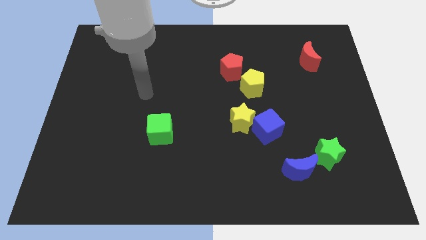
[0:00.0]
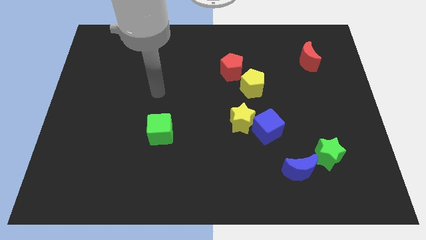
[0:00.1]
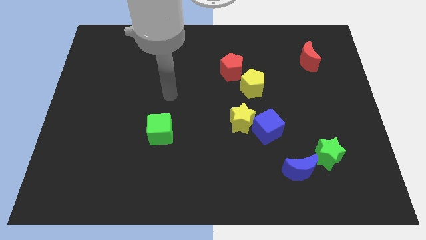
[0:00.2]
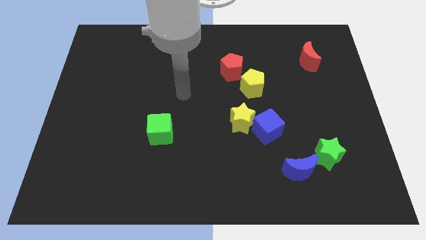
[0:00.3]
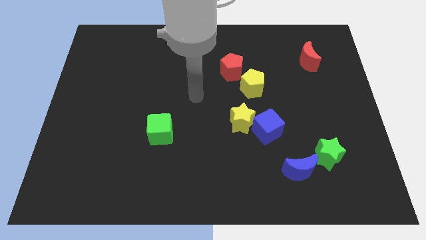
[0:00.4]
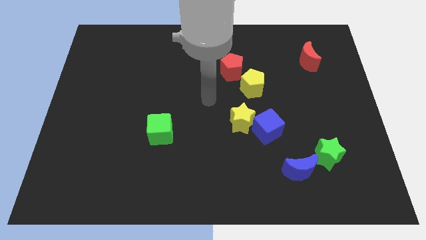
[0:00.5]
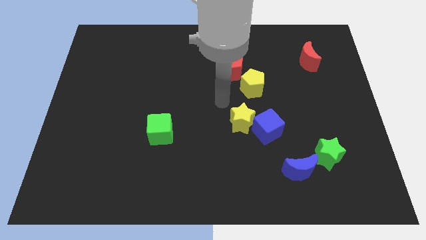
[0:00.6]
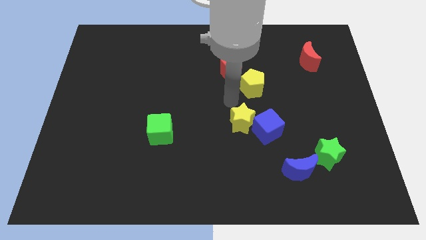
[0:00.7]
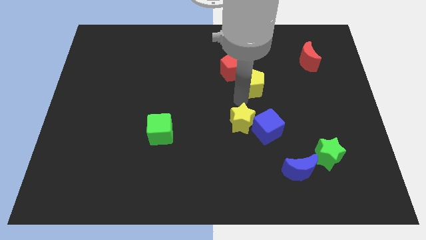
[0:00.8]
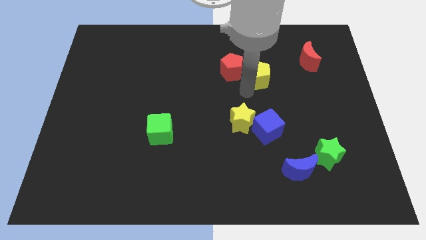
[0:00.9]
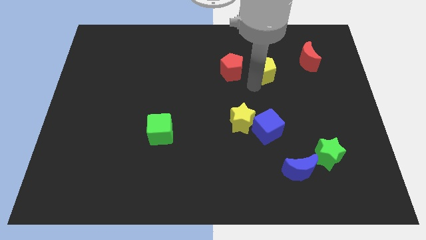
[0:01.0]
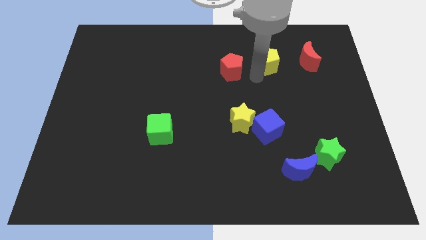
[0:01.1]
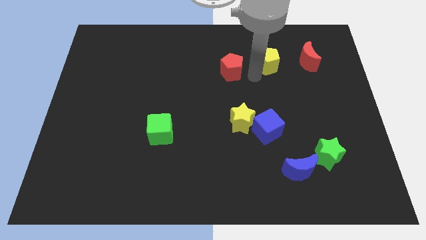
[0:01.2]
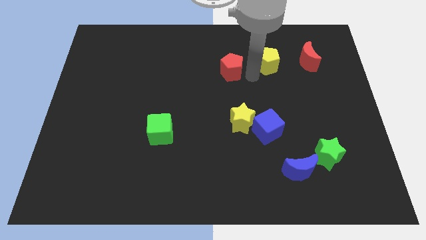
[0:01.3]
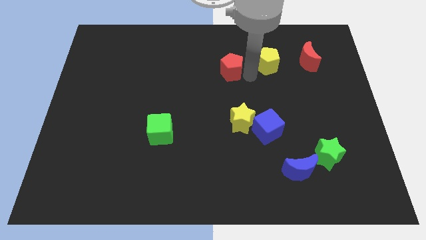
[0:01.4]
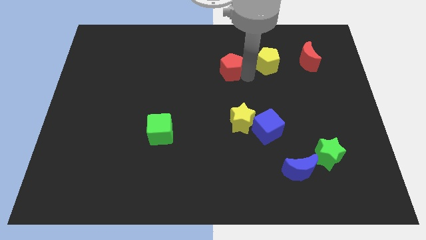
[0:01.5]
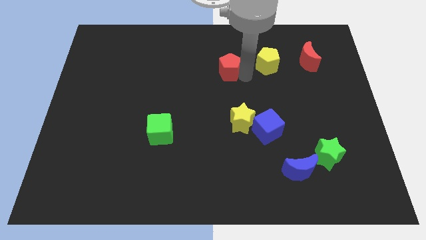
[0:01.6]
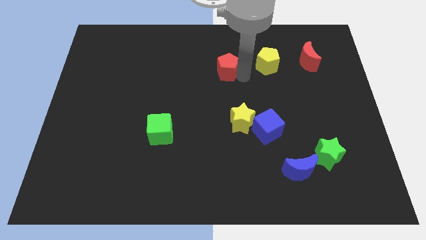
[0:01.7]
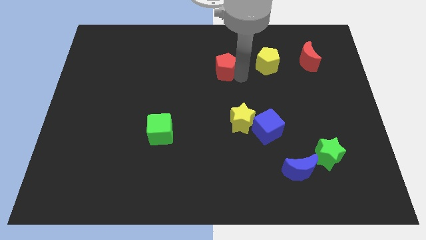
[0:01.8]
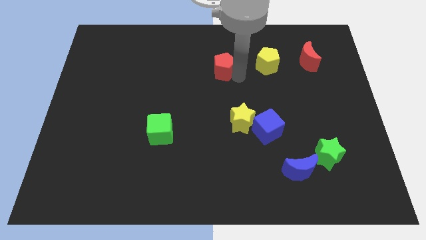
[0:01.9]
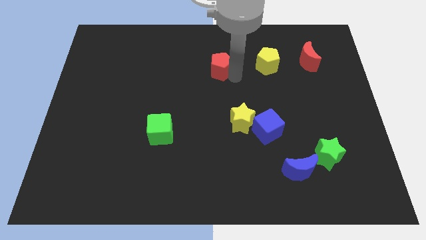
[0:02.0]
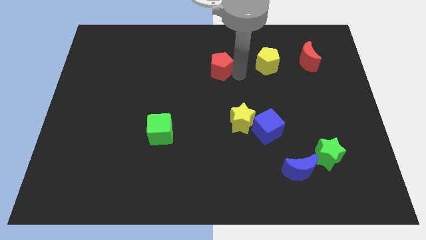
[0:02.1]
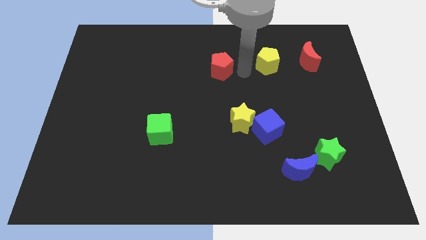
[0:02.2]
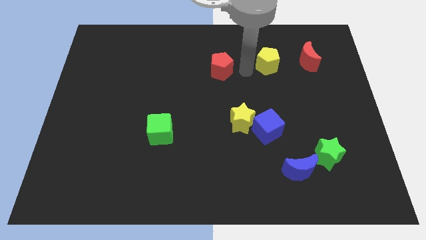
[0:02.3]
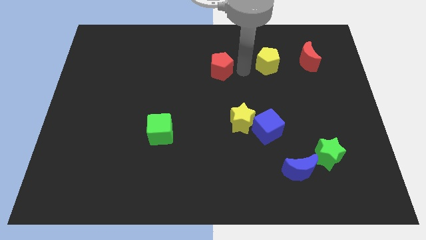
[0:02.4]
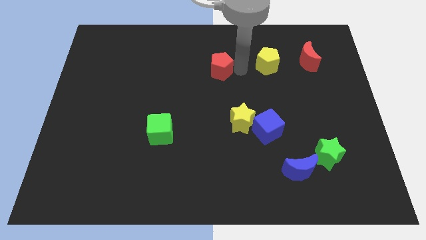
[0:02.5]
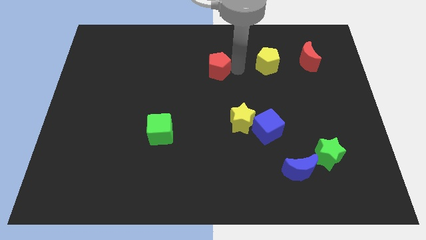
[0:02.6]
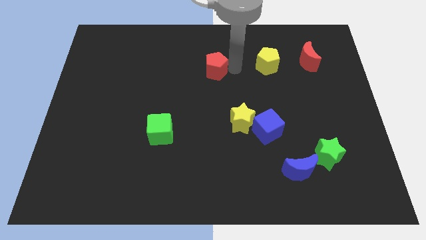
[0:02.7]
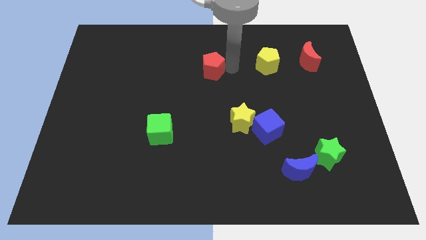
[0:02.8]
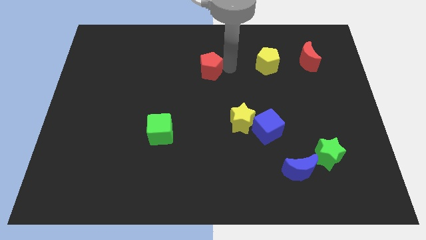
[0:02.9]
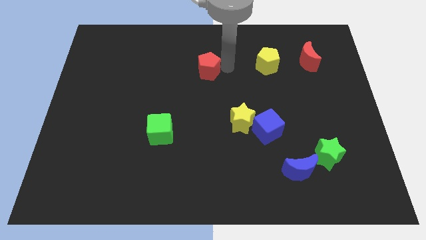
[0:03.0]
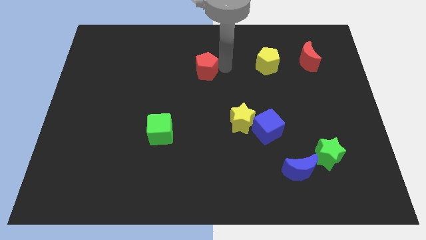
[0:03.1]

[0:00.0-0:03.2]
slightly slide the red pentagon to the left

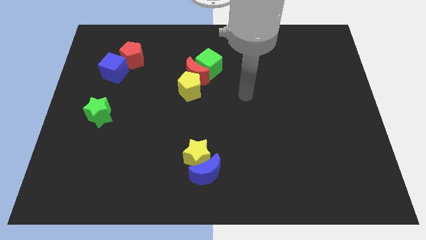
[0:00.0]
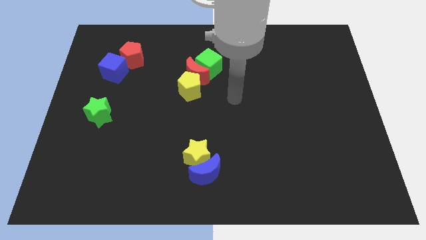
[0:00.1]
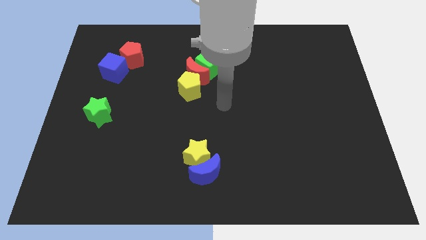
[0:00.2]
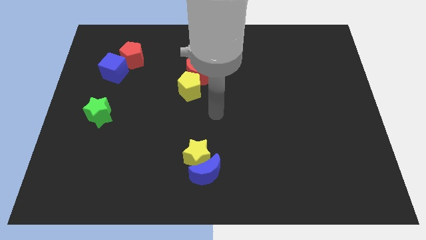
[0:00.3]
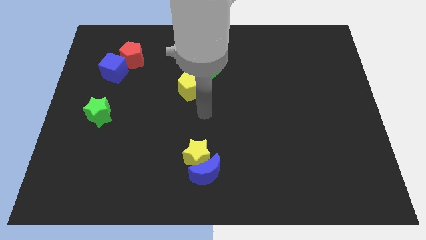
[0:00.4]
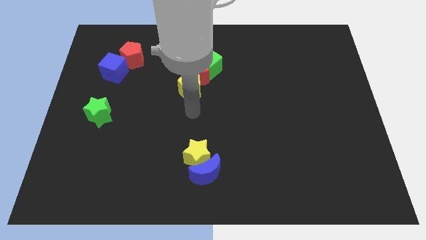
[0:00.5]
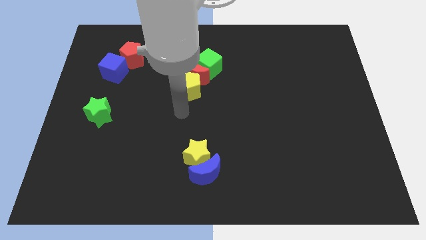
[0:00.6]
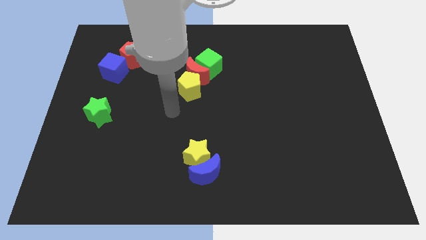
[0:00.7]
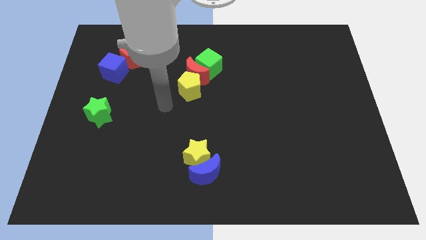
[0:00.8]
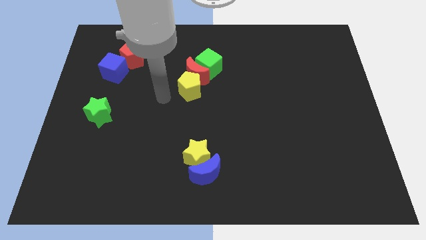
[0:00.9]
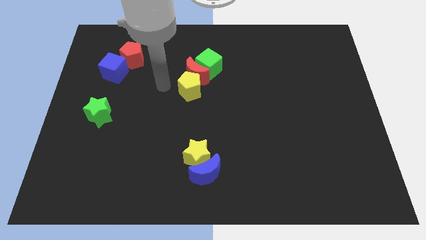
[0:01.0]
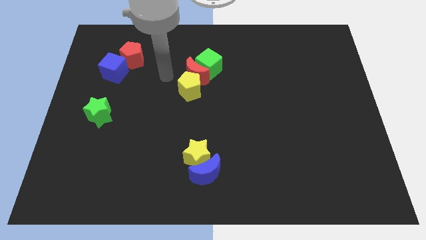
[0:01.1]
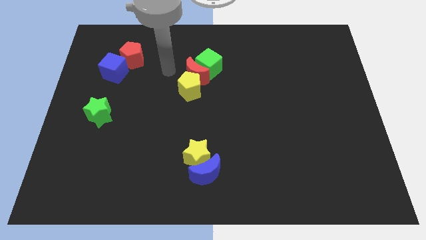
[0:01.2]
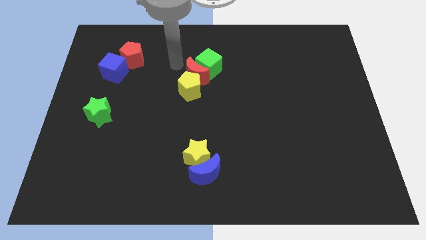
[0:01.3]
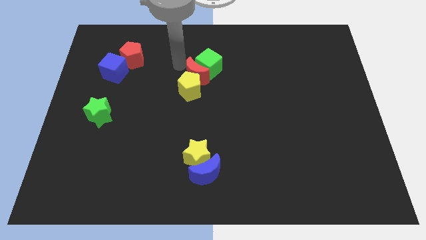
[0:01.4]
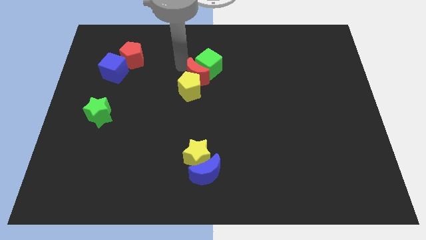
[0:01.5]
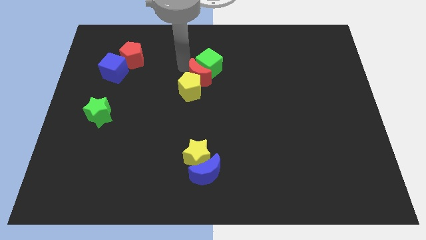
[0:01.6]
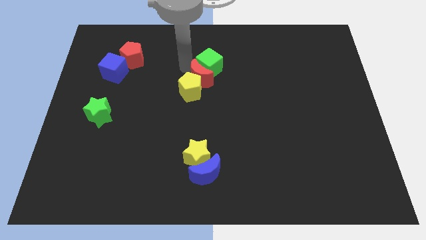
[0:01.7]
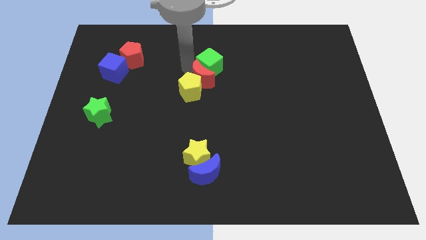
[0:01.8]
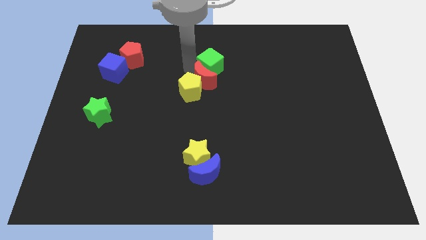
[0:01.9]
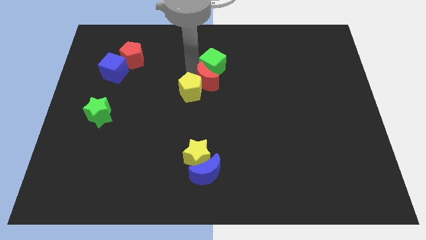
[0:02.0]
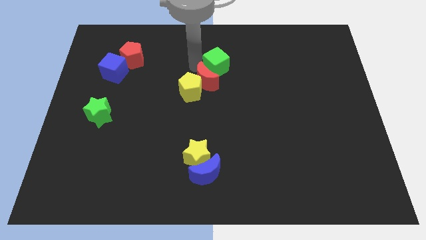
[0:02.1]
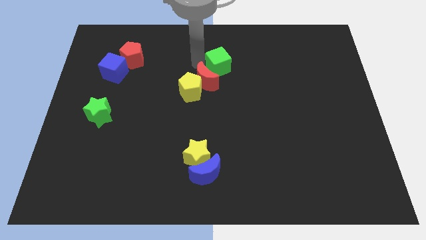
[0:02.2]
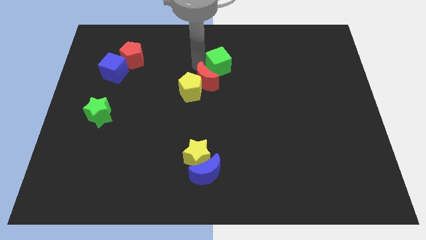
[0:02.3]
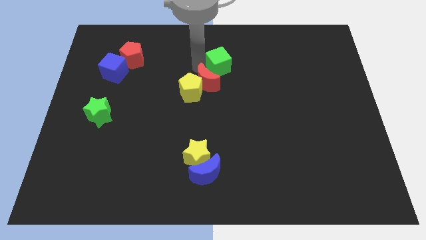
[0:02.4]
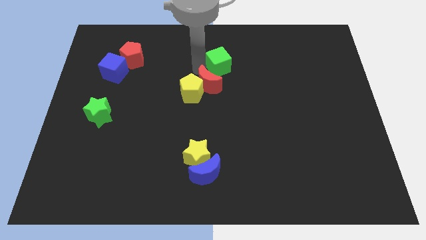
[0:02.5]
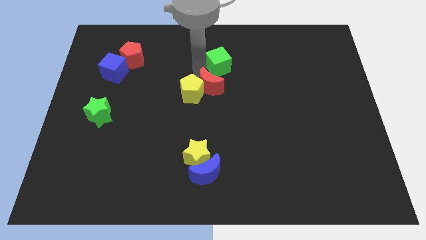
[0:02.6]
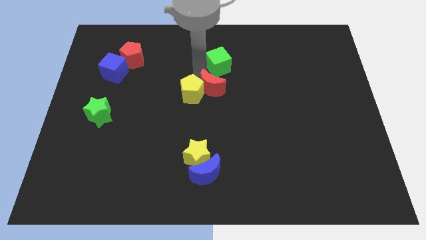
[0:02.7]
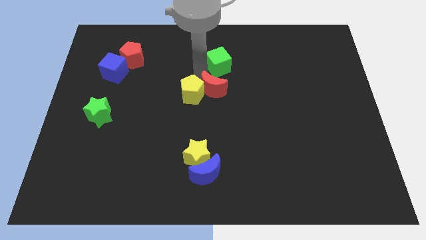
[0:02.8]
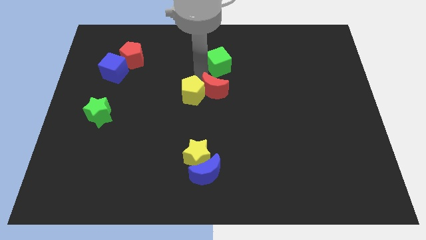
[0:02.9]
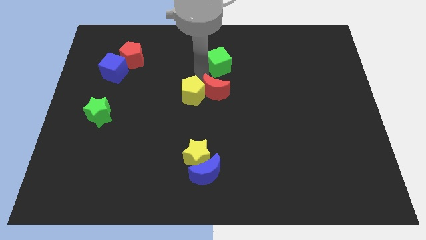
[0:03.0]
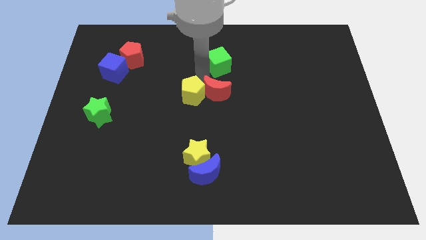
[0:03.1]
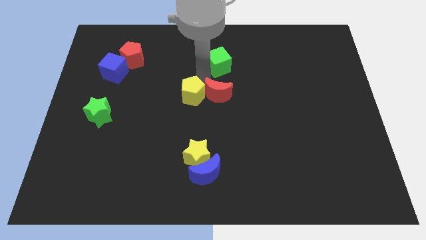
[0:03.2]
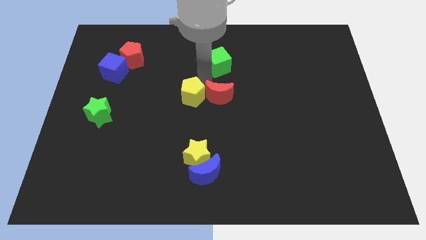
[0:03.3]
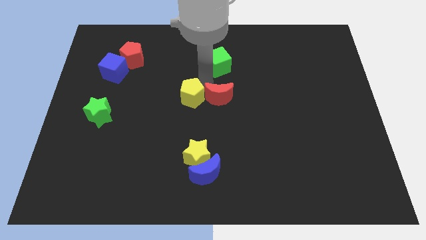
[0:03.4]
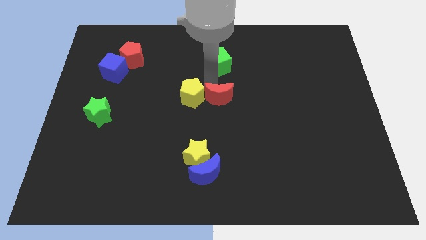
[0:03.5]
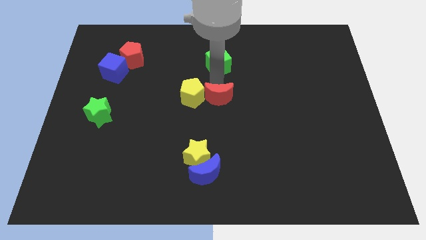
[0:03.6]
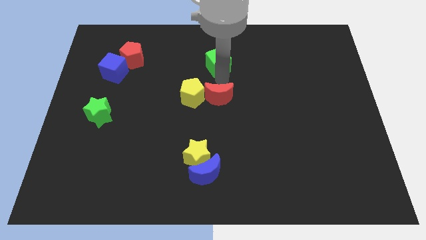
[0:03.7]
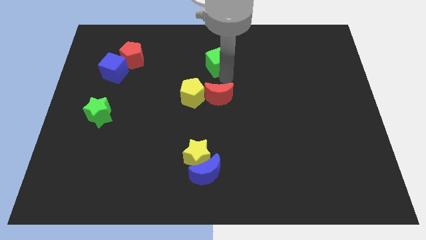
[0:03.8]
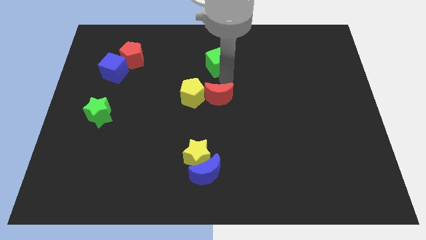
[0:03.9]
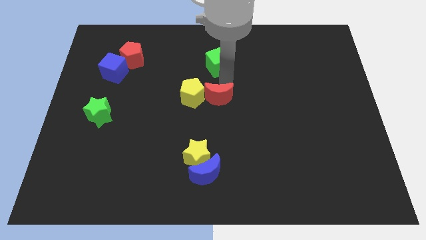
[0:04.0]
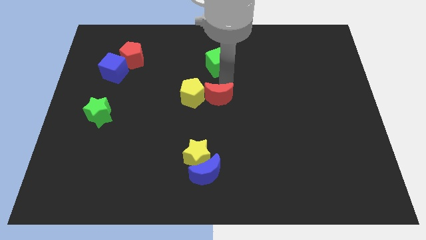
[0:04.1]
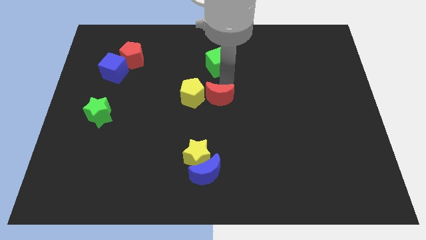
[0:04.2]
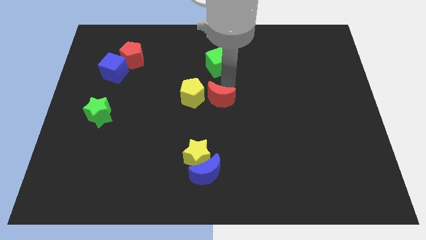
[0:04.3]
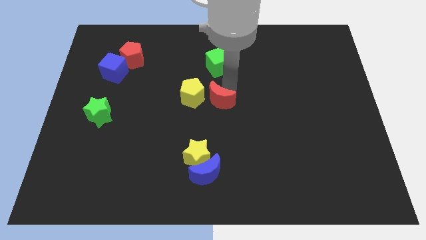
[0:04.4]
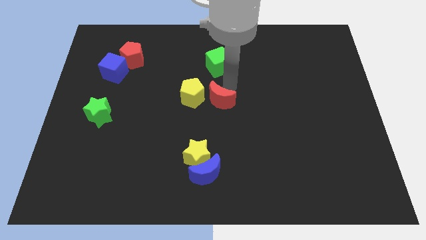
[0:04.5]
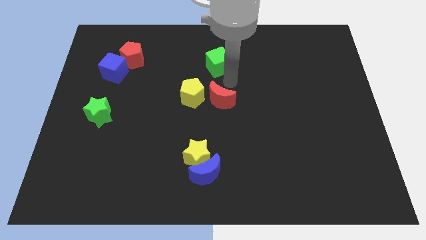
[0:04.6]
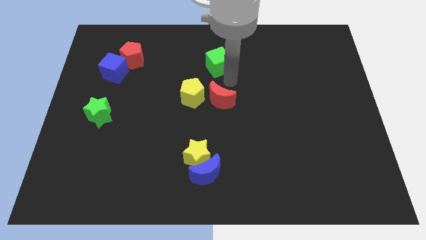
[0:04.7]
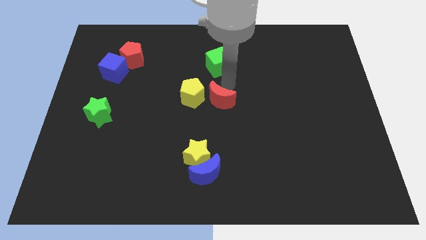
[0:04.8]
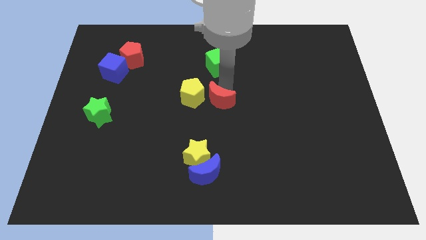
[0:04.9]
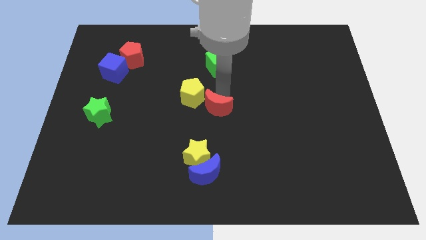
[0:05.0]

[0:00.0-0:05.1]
move the red moon downwards a little bit

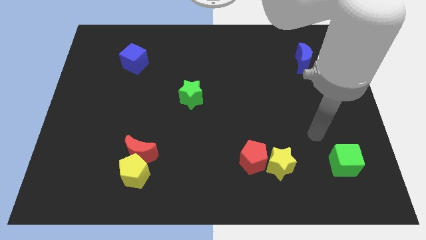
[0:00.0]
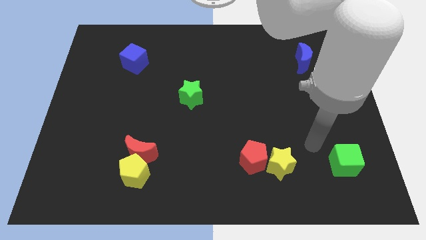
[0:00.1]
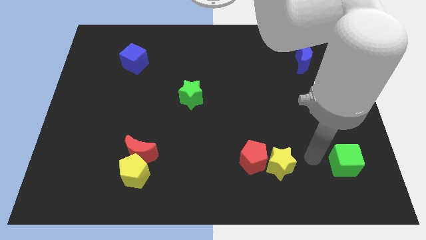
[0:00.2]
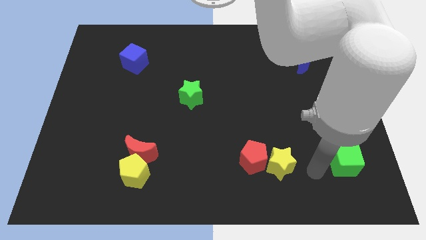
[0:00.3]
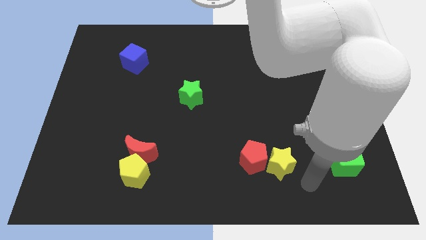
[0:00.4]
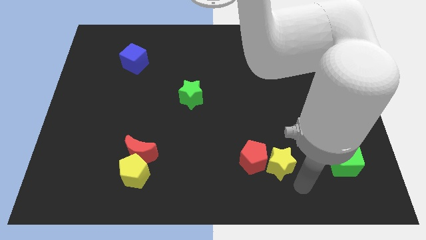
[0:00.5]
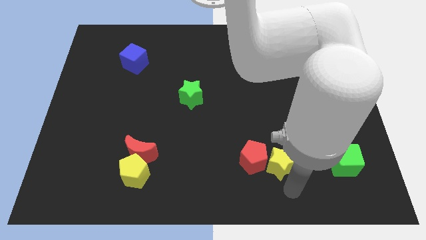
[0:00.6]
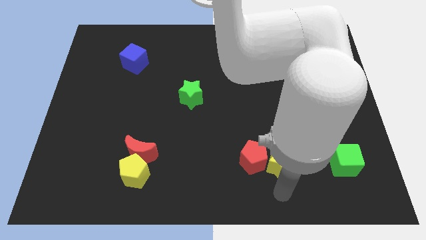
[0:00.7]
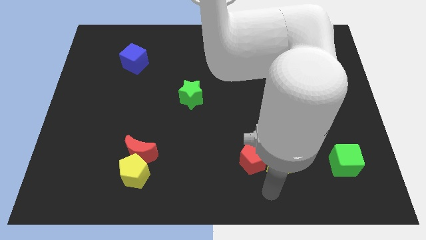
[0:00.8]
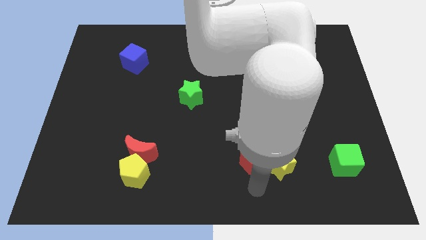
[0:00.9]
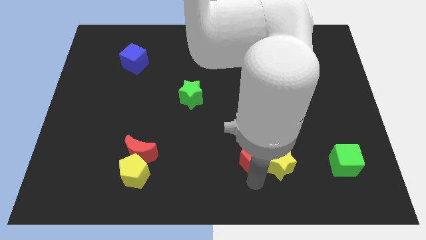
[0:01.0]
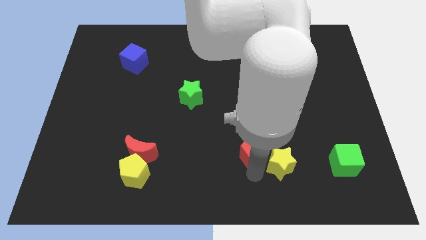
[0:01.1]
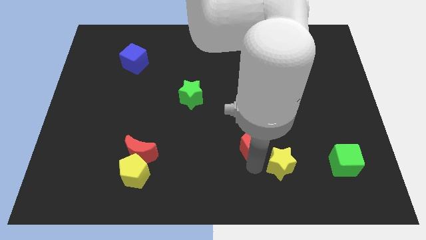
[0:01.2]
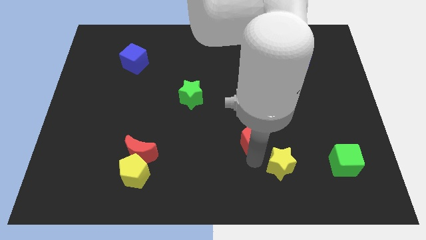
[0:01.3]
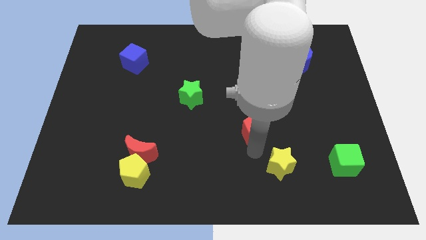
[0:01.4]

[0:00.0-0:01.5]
push the red pentagon a little upwards
